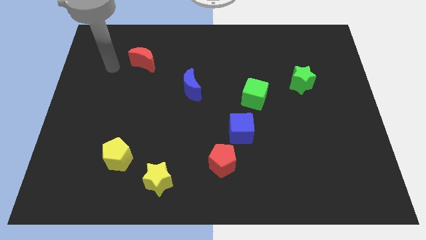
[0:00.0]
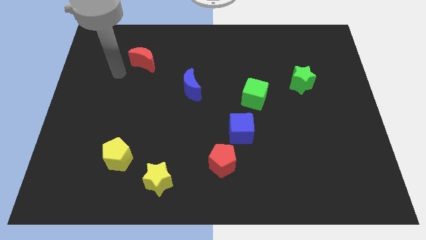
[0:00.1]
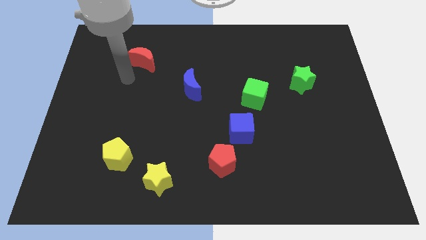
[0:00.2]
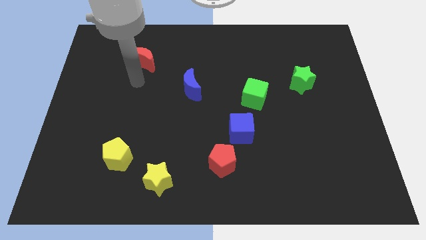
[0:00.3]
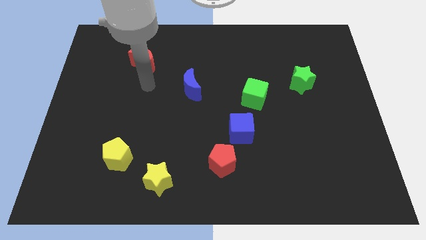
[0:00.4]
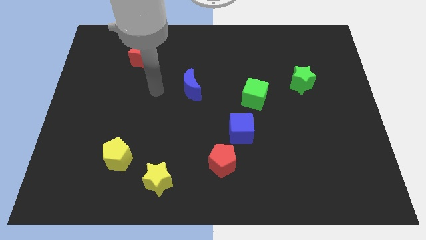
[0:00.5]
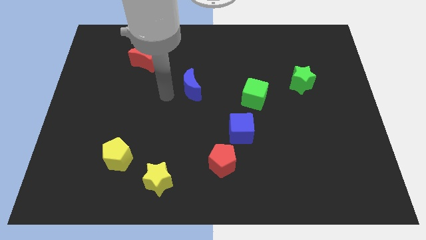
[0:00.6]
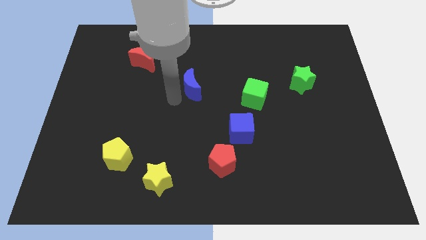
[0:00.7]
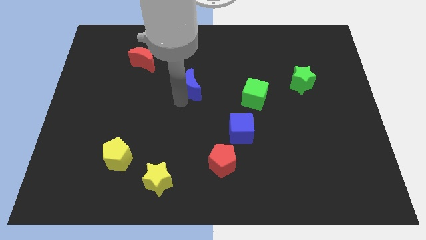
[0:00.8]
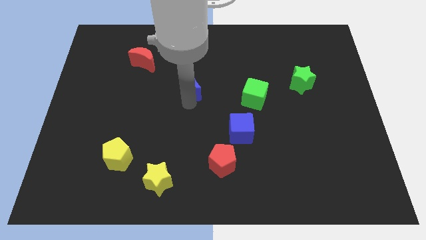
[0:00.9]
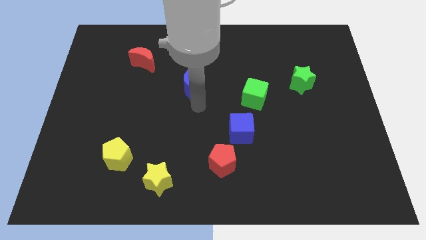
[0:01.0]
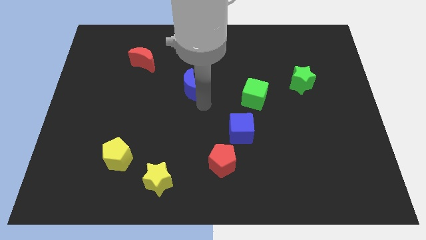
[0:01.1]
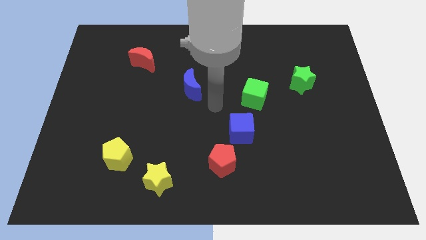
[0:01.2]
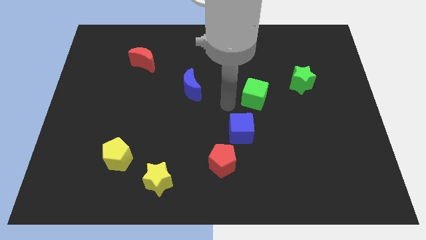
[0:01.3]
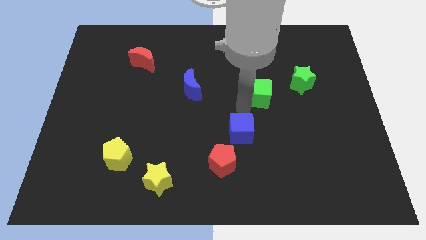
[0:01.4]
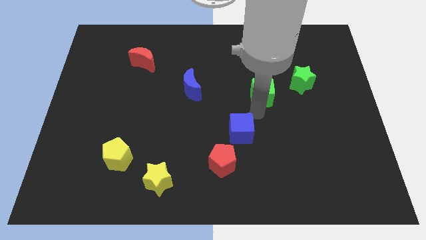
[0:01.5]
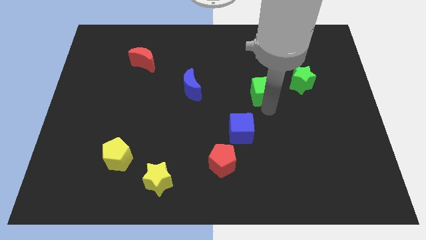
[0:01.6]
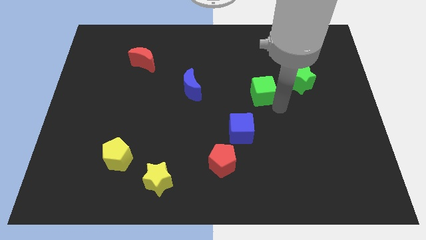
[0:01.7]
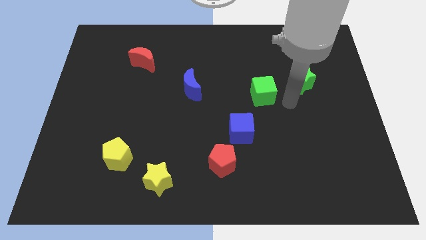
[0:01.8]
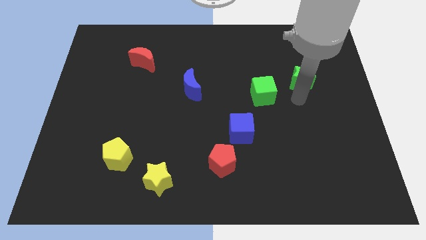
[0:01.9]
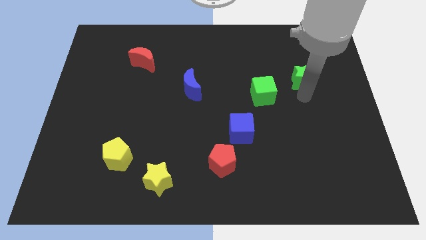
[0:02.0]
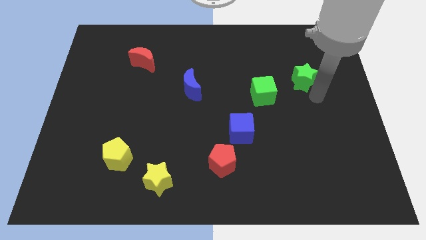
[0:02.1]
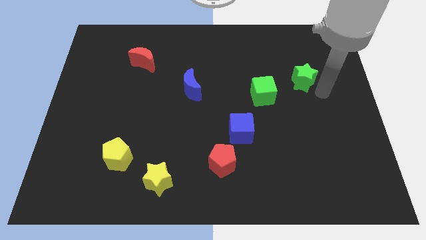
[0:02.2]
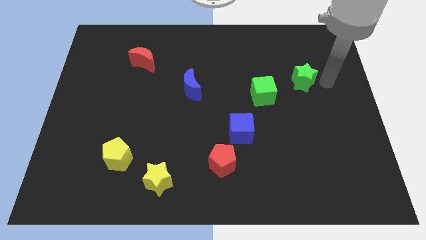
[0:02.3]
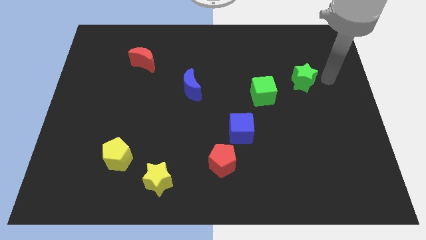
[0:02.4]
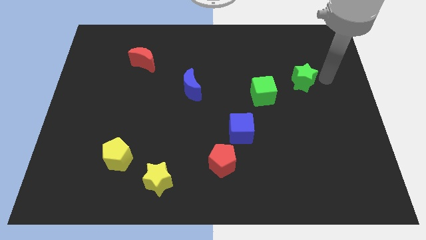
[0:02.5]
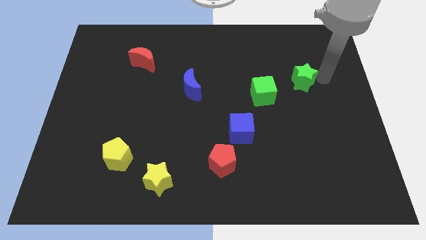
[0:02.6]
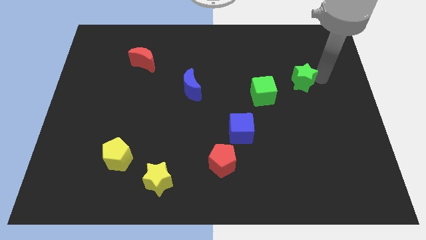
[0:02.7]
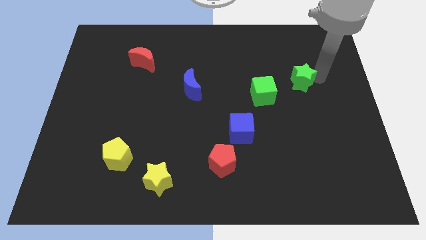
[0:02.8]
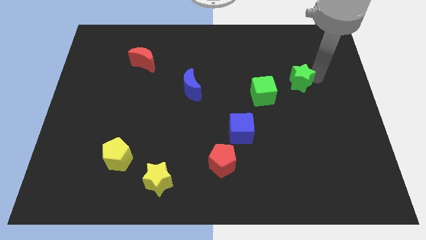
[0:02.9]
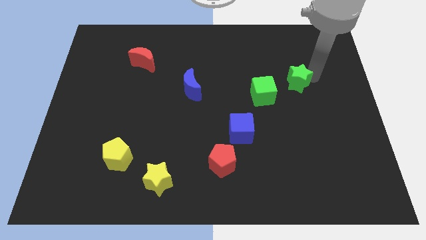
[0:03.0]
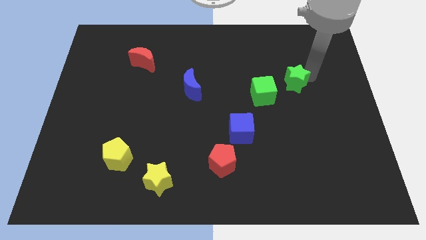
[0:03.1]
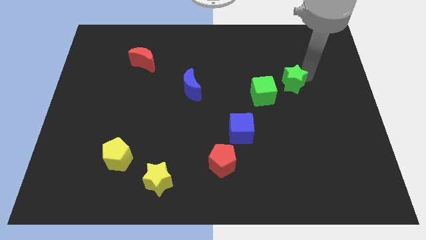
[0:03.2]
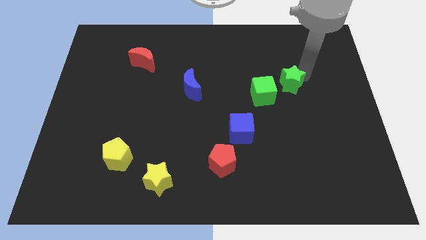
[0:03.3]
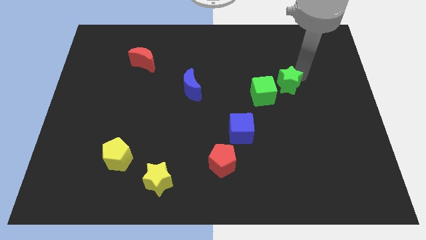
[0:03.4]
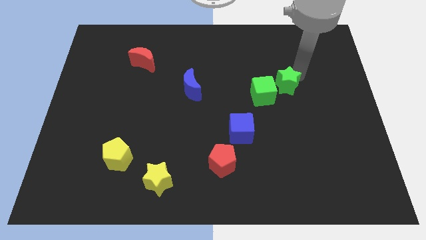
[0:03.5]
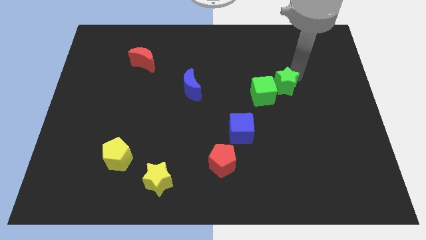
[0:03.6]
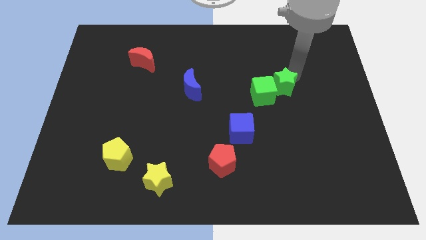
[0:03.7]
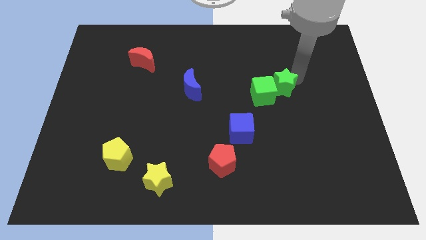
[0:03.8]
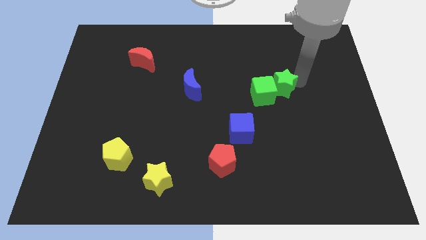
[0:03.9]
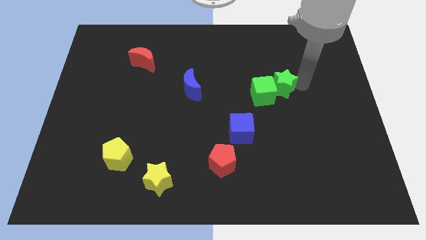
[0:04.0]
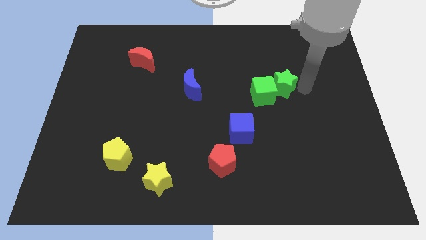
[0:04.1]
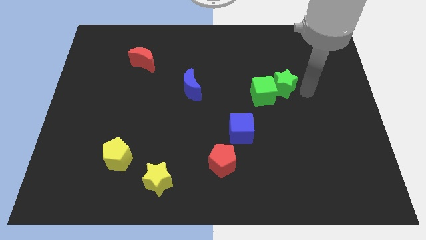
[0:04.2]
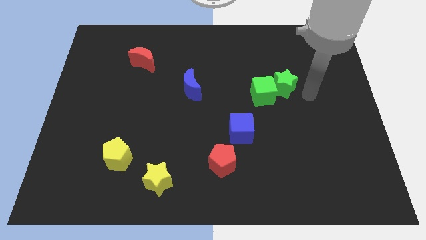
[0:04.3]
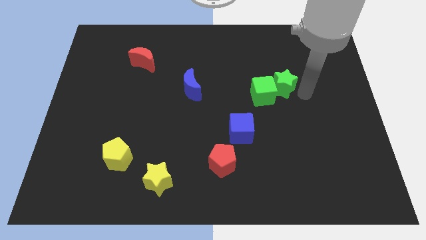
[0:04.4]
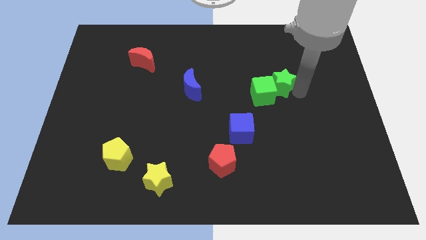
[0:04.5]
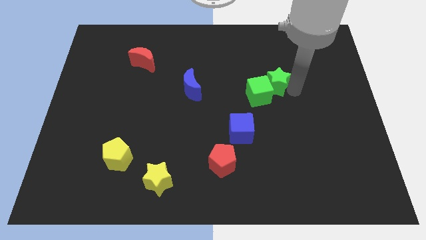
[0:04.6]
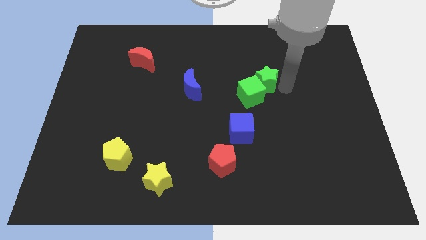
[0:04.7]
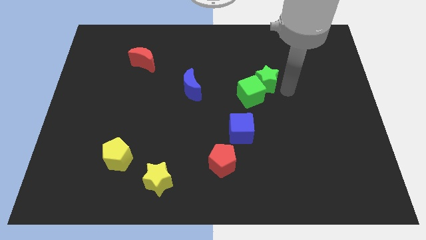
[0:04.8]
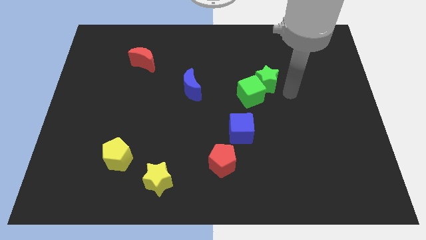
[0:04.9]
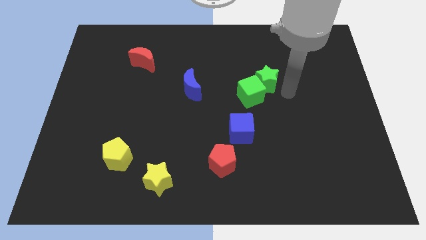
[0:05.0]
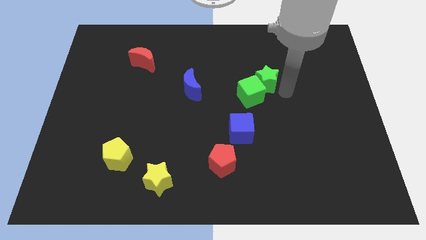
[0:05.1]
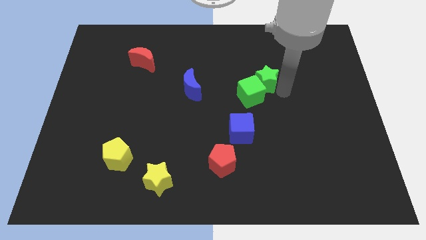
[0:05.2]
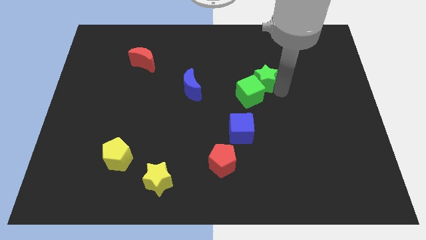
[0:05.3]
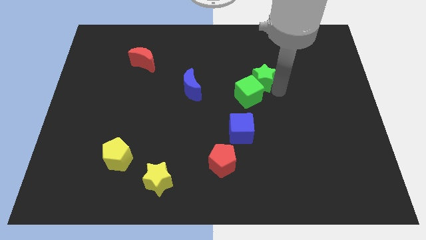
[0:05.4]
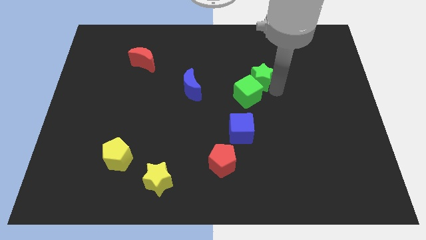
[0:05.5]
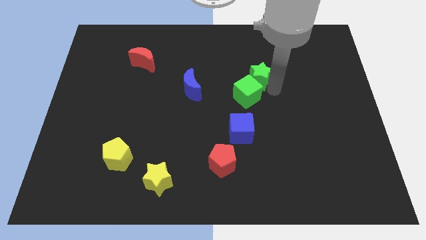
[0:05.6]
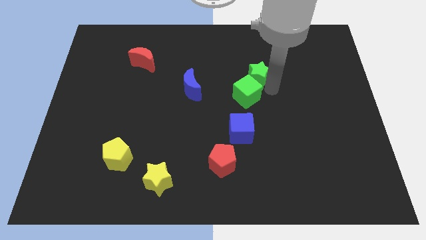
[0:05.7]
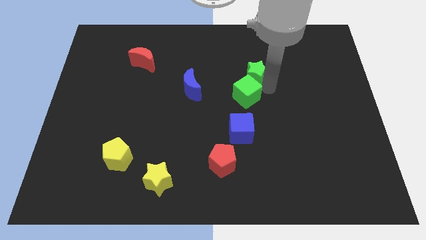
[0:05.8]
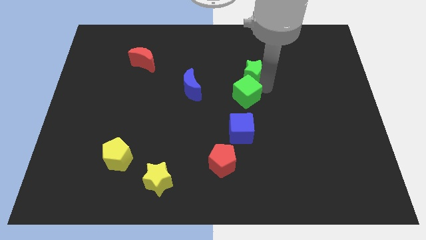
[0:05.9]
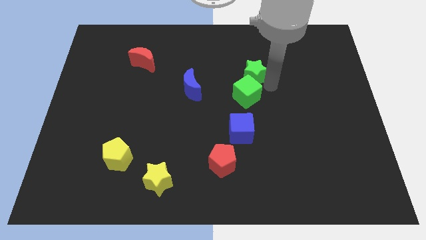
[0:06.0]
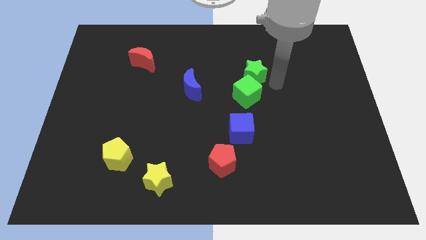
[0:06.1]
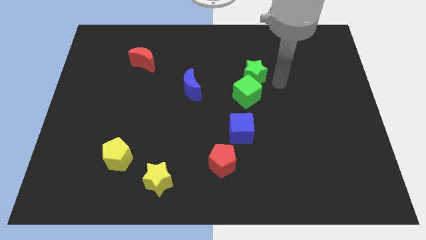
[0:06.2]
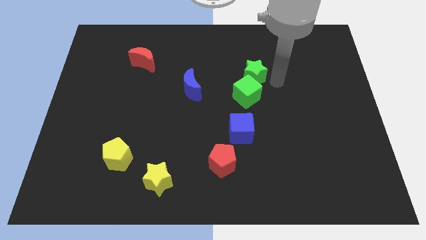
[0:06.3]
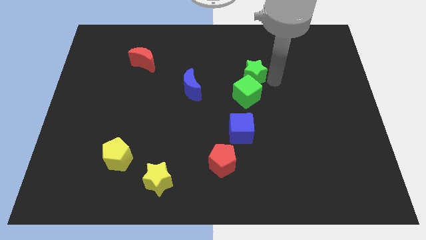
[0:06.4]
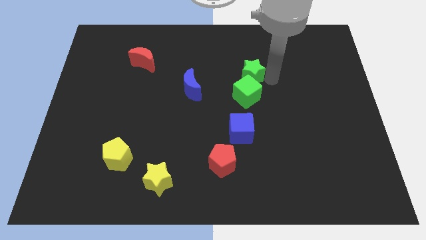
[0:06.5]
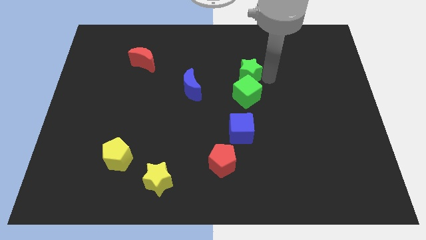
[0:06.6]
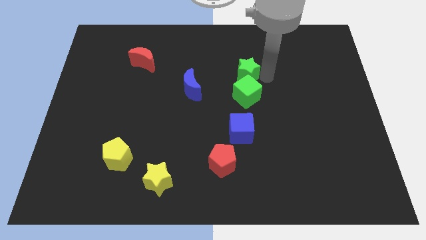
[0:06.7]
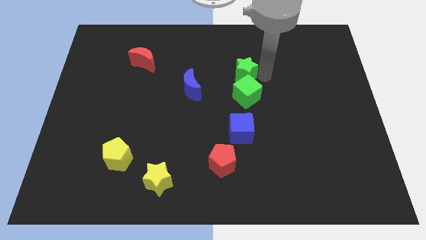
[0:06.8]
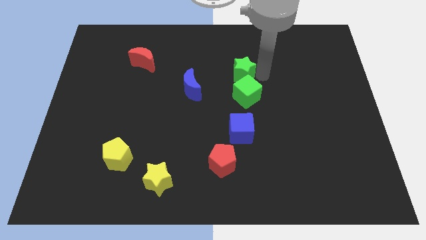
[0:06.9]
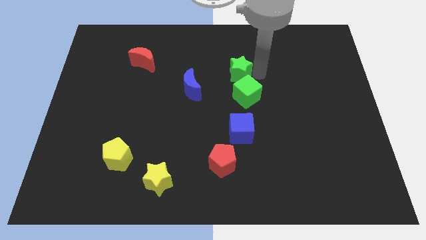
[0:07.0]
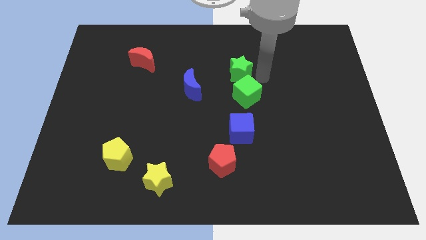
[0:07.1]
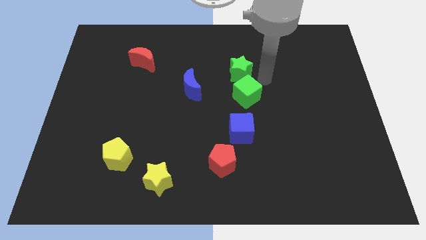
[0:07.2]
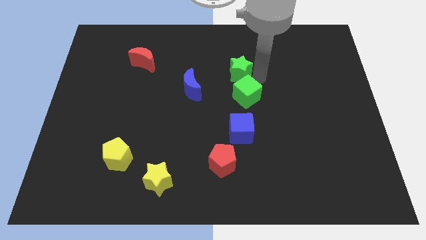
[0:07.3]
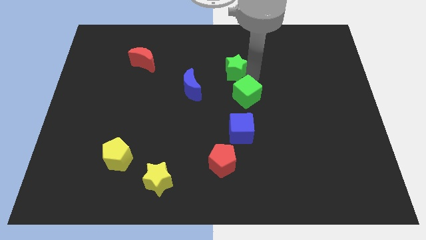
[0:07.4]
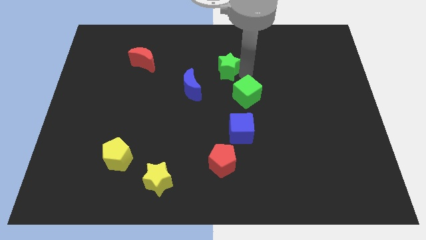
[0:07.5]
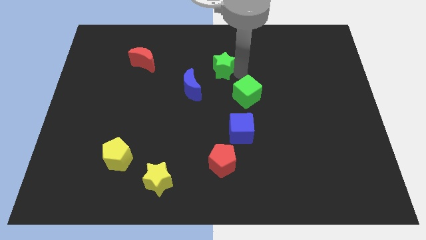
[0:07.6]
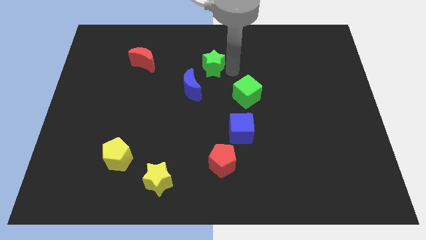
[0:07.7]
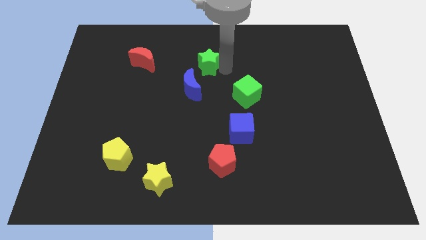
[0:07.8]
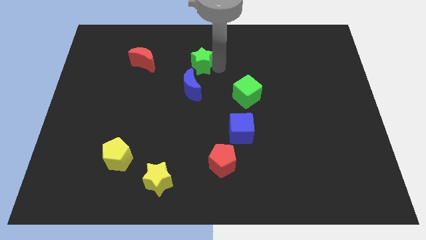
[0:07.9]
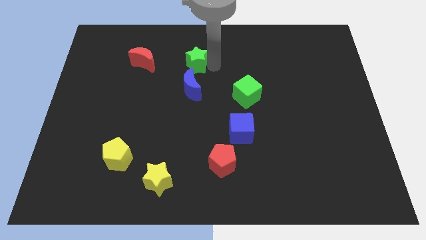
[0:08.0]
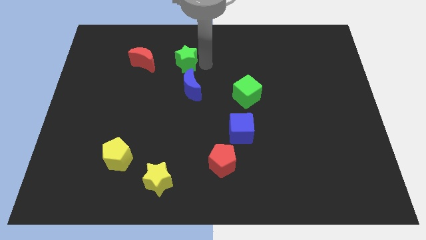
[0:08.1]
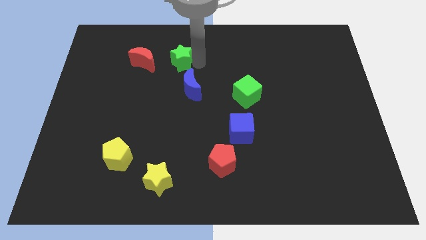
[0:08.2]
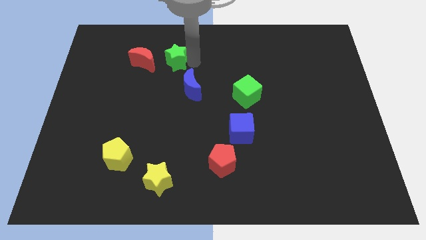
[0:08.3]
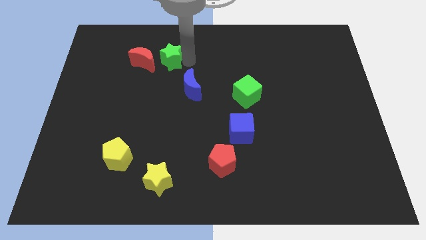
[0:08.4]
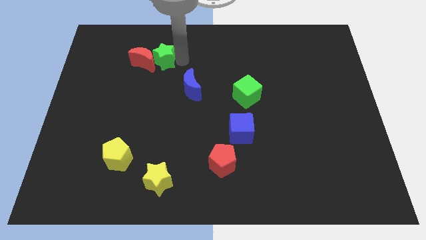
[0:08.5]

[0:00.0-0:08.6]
move the green star to the red moon
